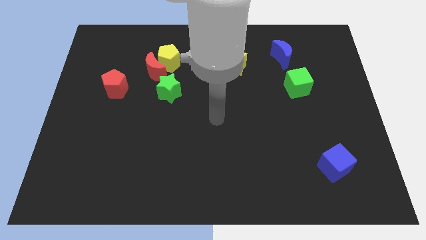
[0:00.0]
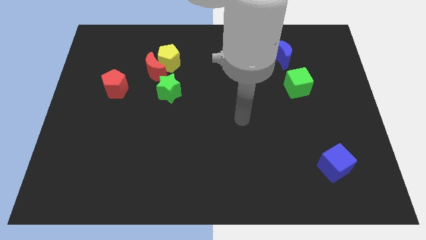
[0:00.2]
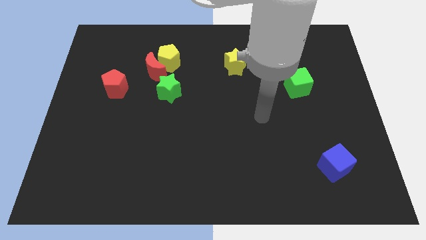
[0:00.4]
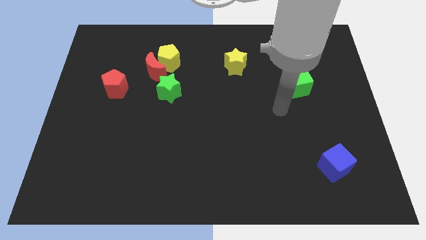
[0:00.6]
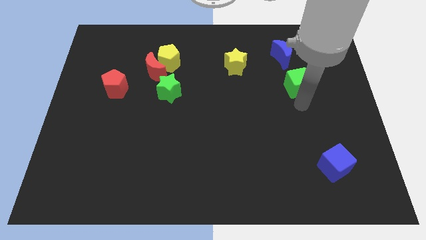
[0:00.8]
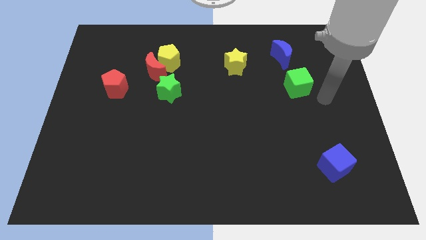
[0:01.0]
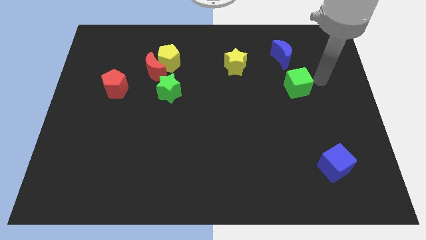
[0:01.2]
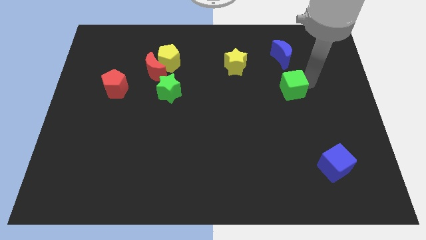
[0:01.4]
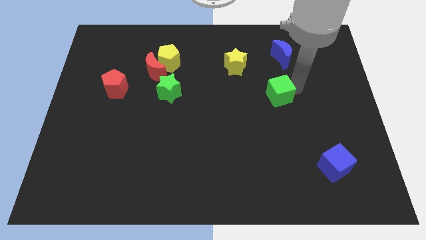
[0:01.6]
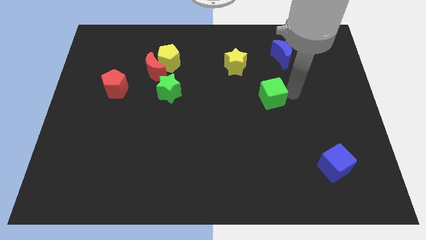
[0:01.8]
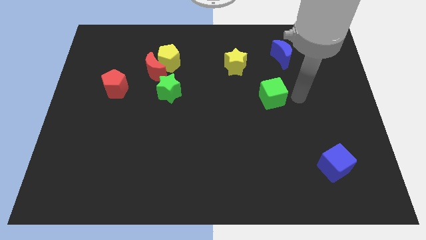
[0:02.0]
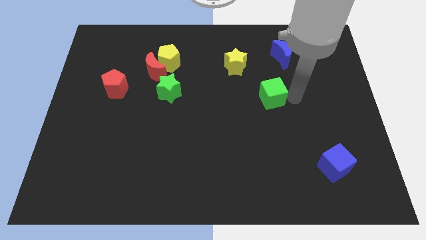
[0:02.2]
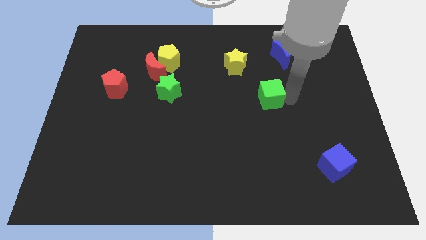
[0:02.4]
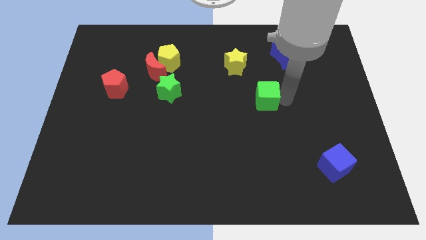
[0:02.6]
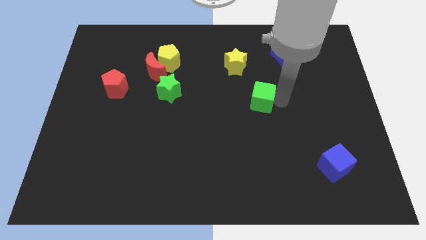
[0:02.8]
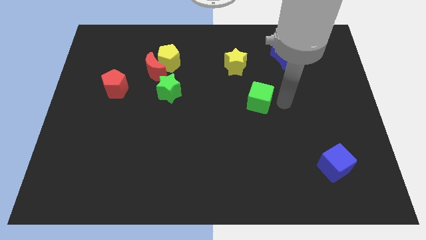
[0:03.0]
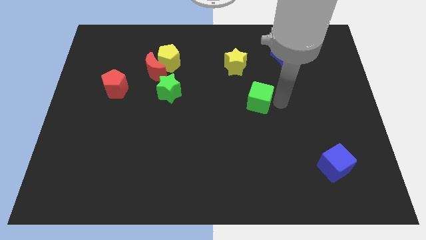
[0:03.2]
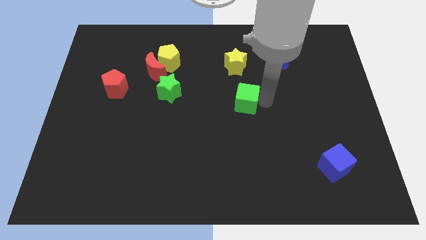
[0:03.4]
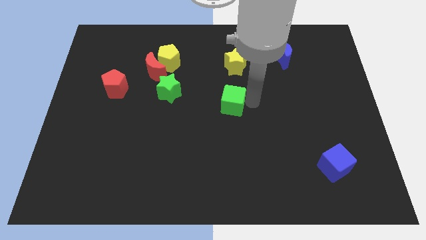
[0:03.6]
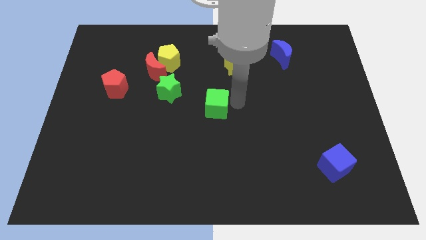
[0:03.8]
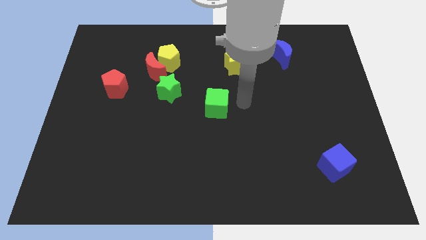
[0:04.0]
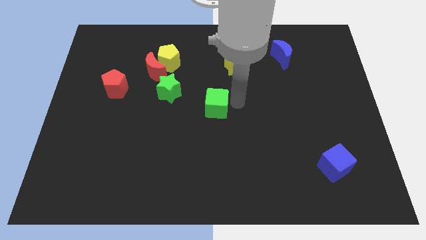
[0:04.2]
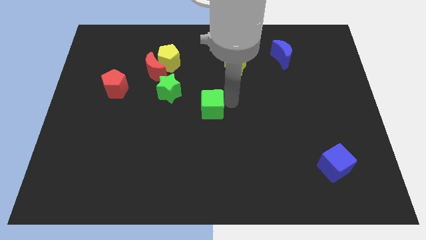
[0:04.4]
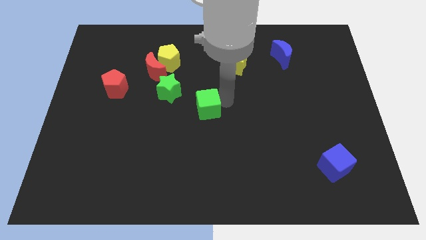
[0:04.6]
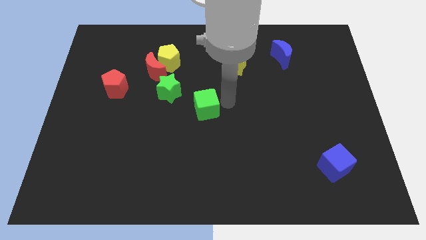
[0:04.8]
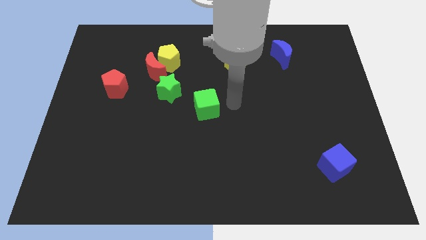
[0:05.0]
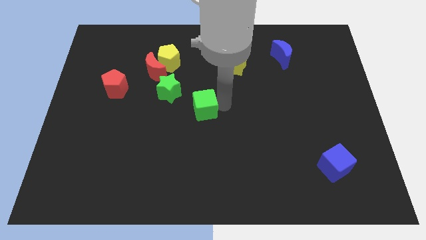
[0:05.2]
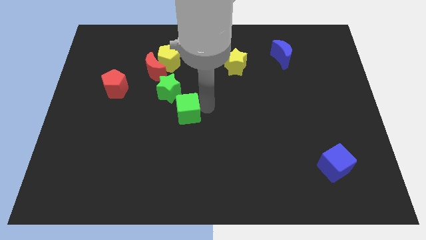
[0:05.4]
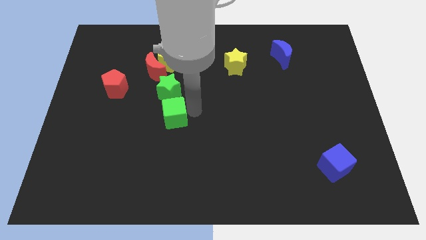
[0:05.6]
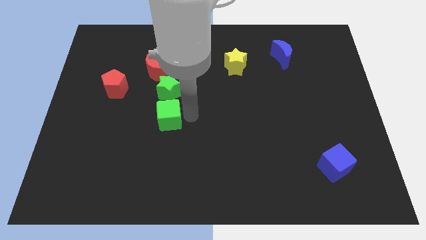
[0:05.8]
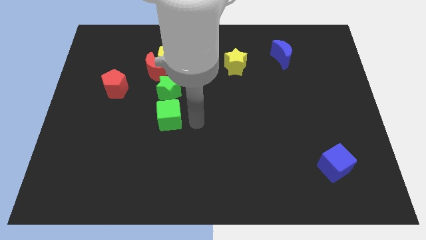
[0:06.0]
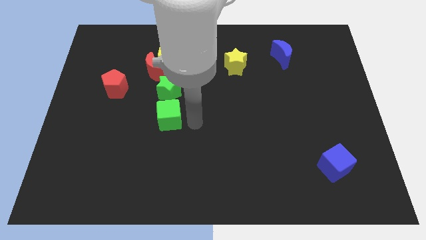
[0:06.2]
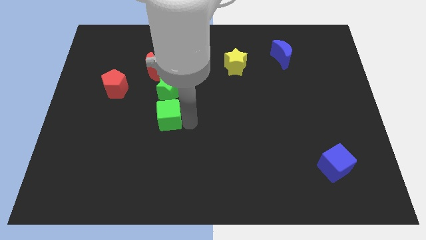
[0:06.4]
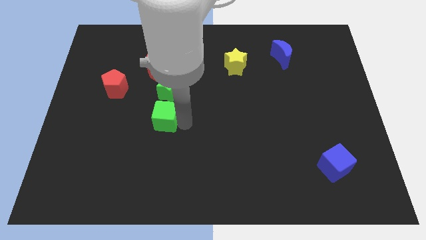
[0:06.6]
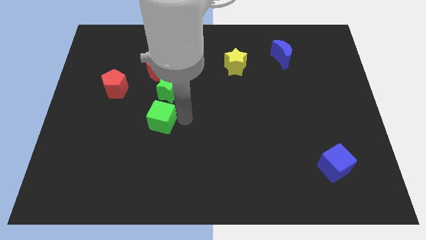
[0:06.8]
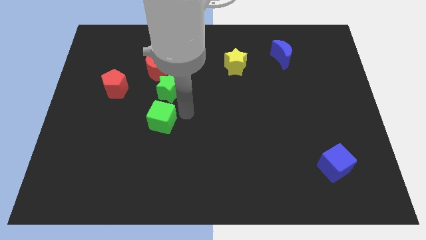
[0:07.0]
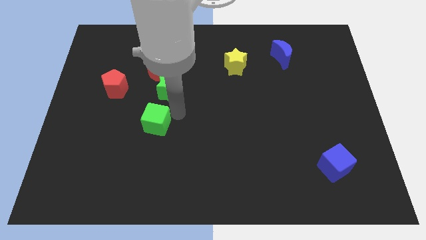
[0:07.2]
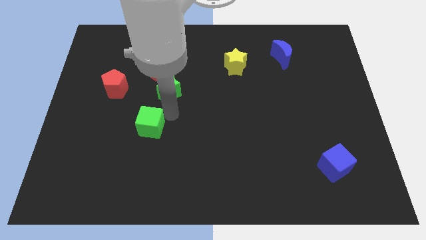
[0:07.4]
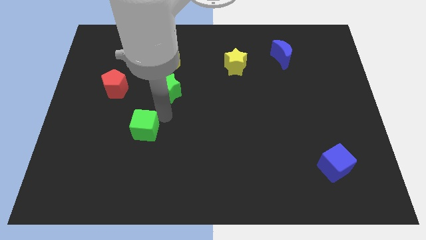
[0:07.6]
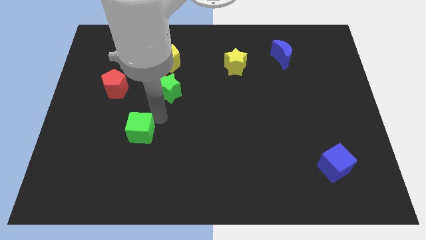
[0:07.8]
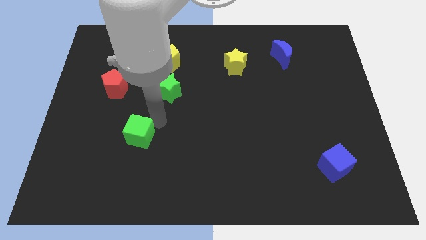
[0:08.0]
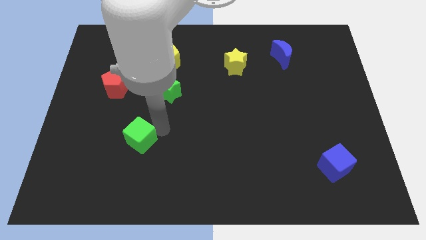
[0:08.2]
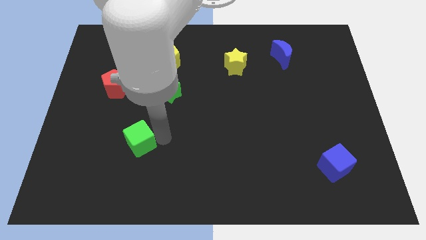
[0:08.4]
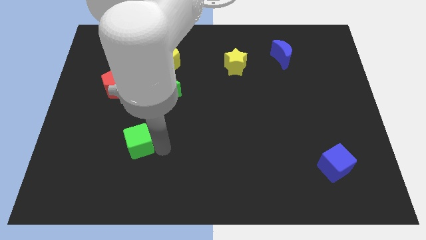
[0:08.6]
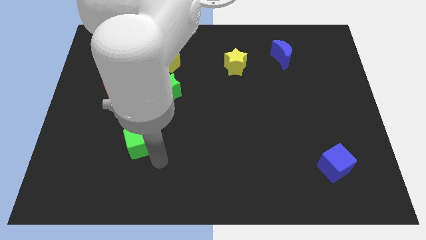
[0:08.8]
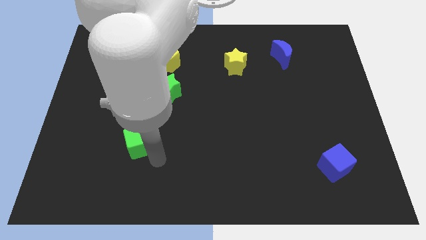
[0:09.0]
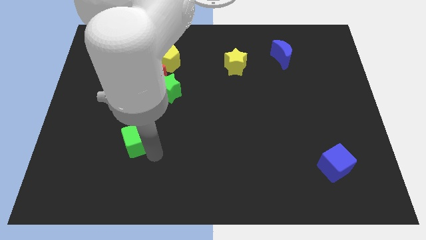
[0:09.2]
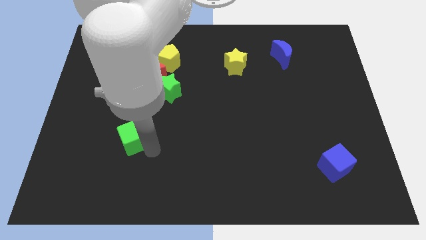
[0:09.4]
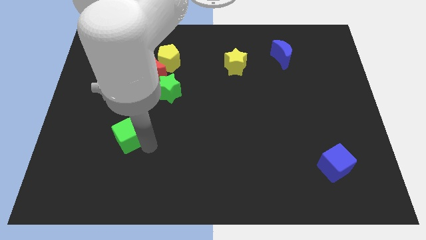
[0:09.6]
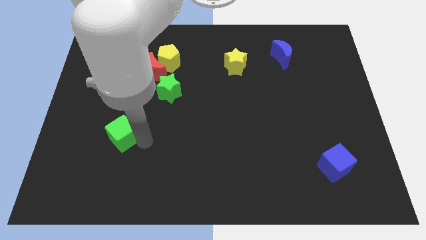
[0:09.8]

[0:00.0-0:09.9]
slide the green cube to the bottom side of the red pentagon

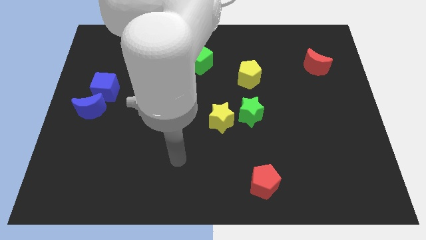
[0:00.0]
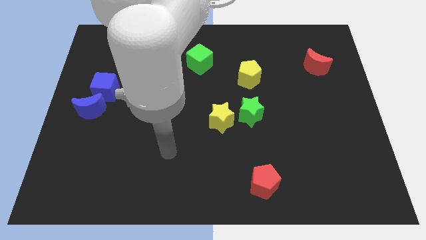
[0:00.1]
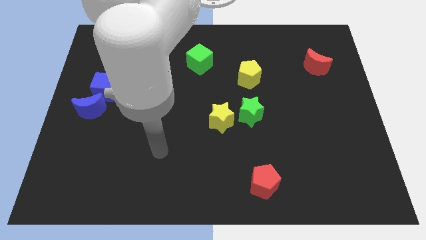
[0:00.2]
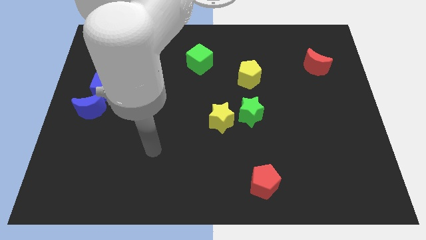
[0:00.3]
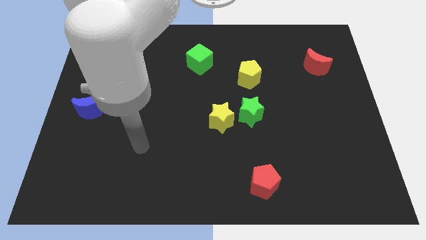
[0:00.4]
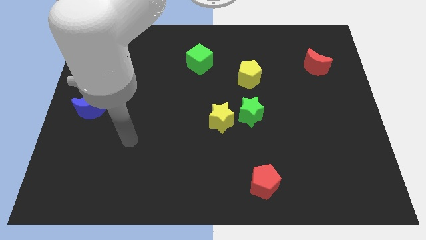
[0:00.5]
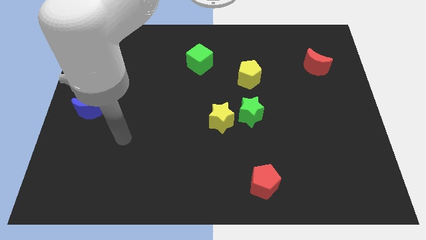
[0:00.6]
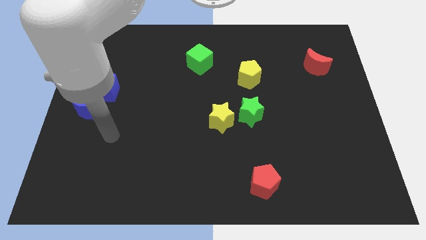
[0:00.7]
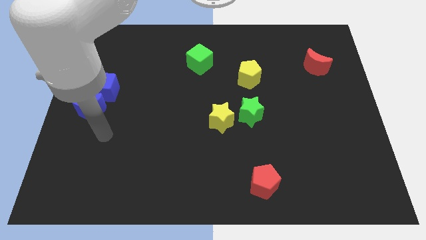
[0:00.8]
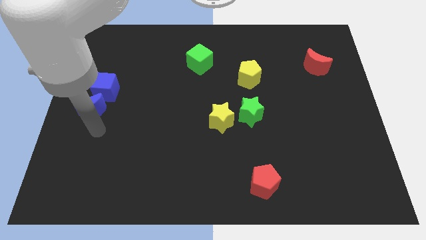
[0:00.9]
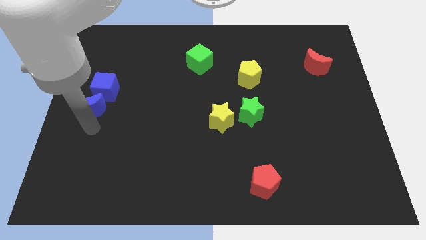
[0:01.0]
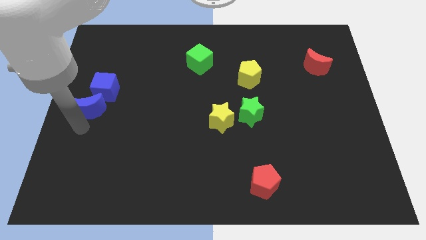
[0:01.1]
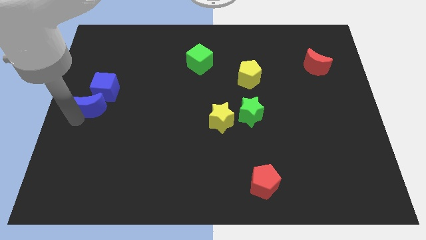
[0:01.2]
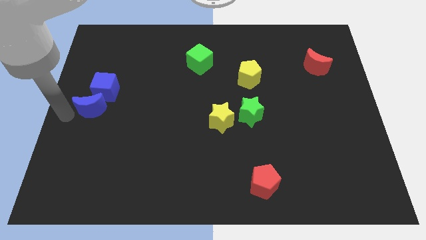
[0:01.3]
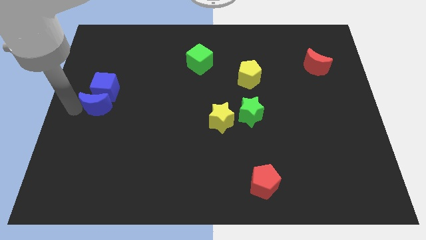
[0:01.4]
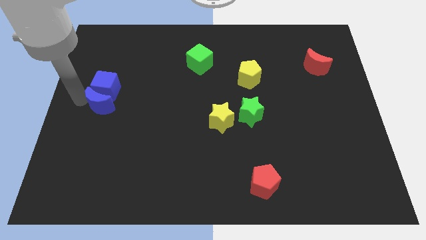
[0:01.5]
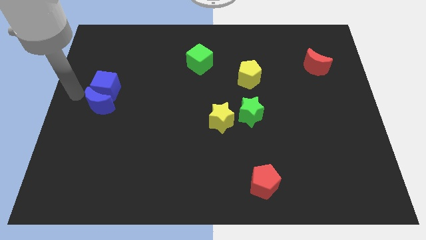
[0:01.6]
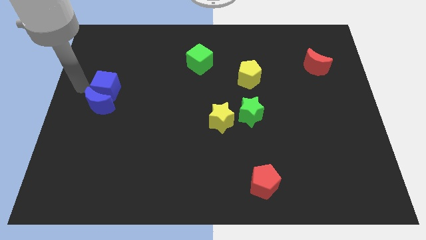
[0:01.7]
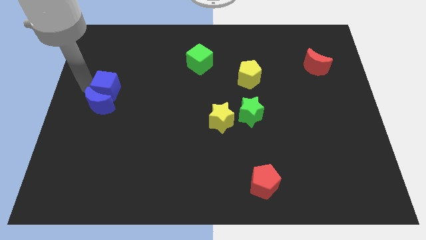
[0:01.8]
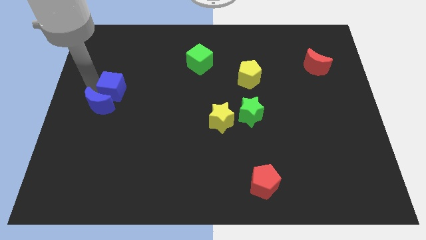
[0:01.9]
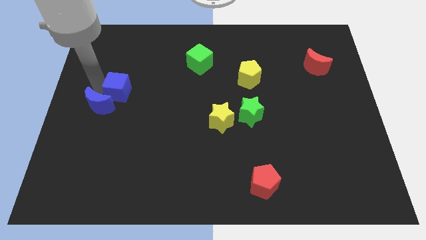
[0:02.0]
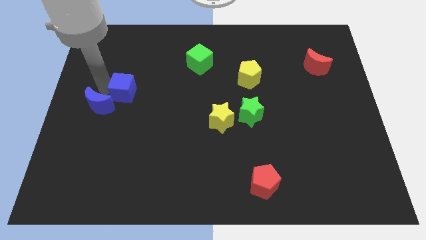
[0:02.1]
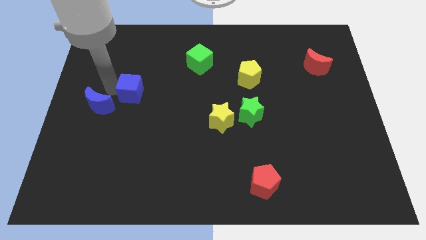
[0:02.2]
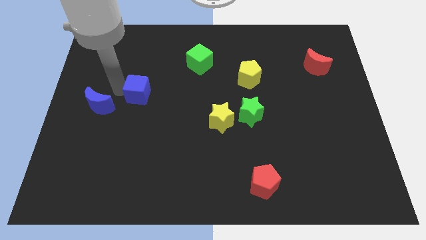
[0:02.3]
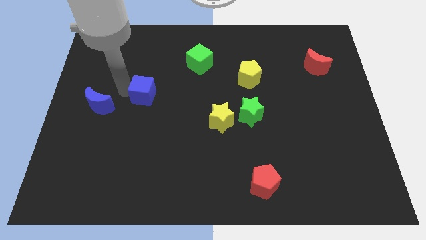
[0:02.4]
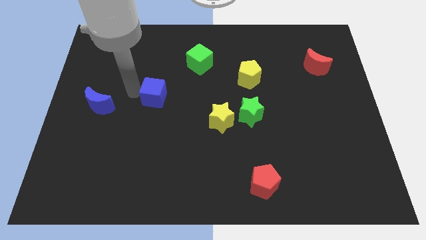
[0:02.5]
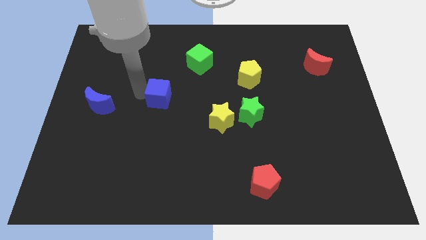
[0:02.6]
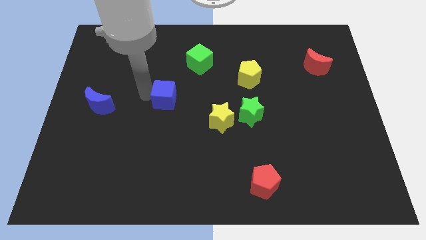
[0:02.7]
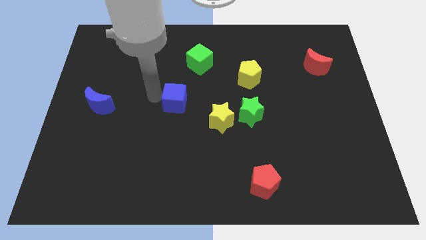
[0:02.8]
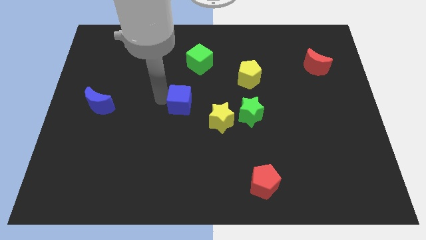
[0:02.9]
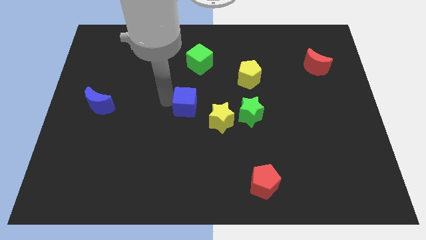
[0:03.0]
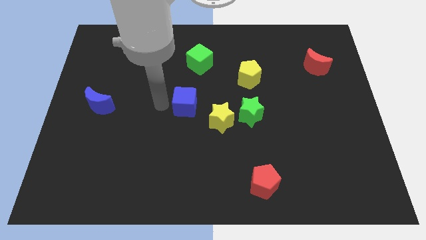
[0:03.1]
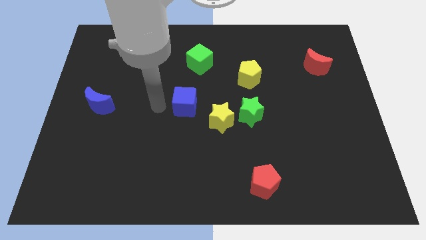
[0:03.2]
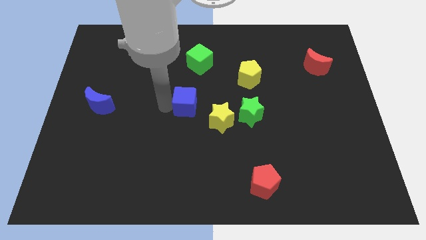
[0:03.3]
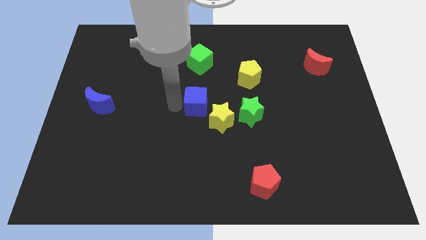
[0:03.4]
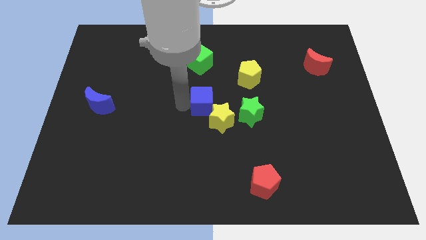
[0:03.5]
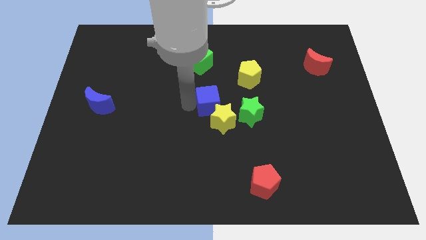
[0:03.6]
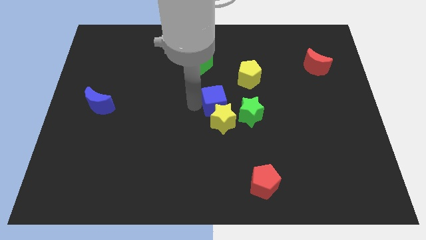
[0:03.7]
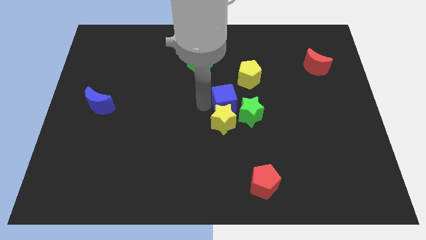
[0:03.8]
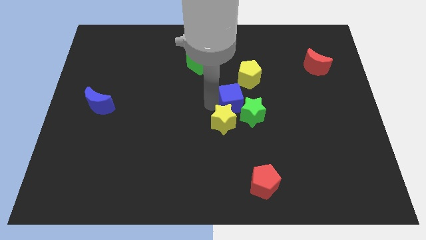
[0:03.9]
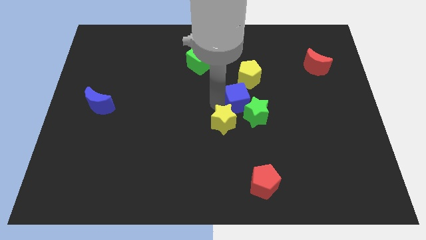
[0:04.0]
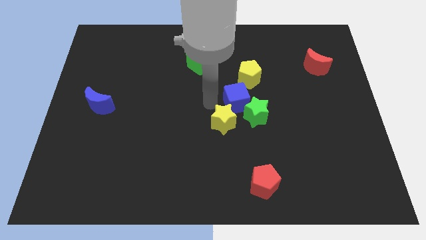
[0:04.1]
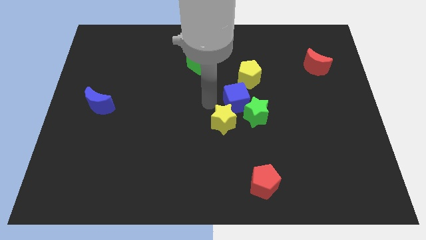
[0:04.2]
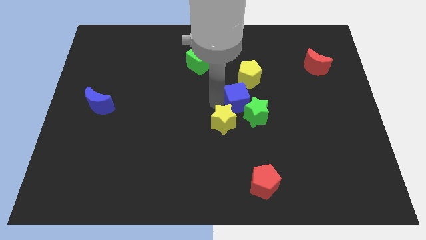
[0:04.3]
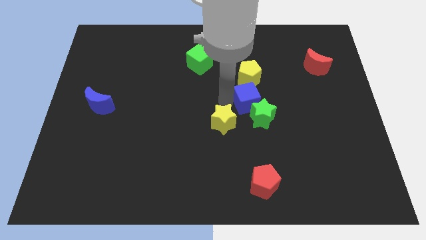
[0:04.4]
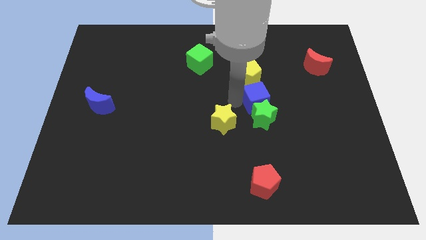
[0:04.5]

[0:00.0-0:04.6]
put the blue cube to the top right of the green star
